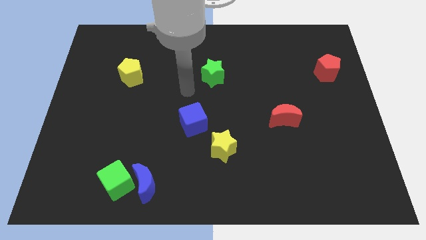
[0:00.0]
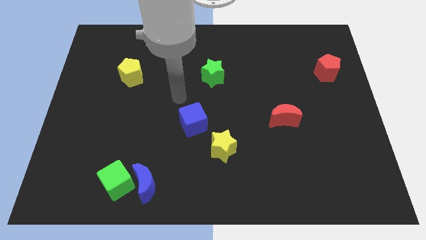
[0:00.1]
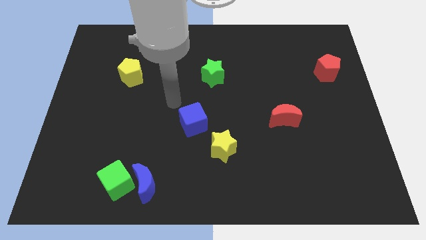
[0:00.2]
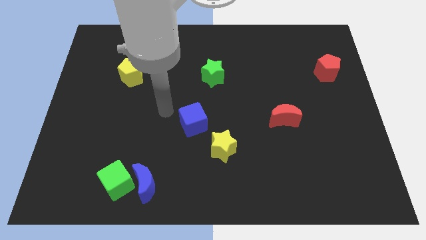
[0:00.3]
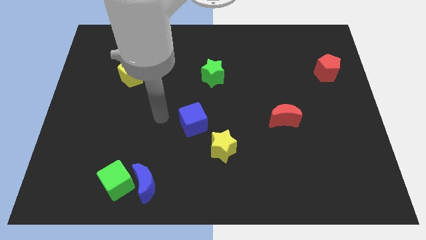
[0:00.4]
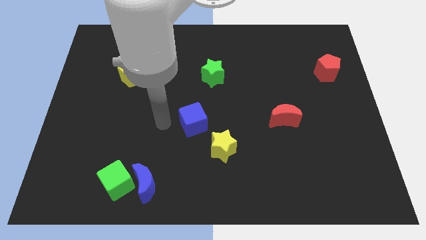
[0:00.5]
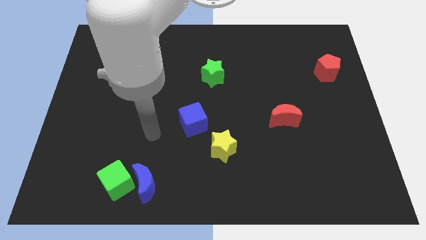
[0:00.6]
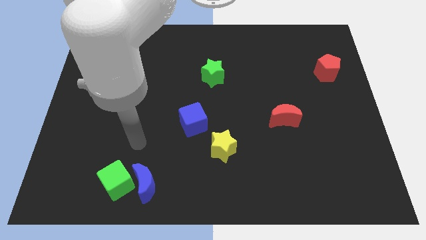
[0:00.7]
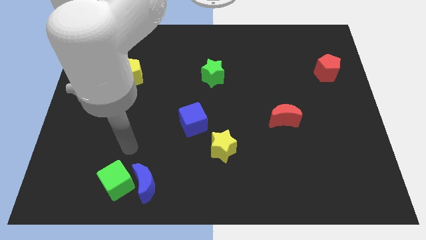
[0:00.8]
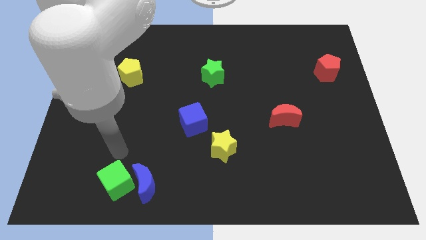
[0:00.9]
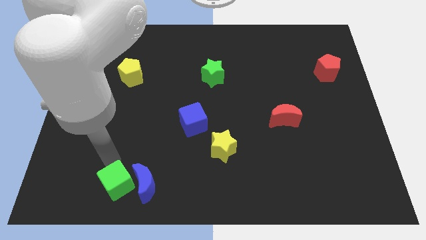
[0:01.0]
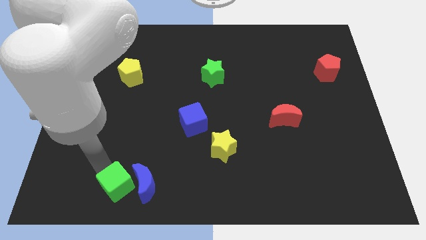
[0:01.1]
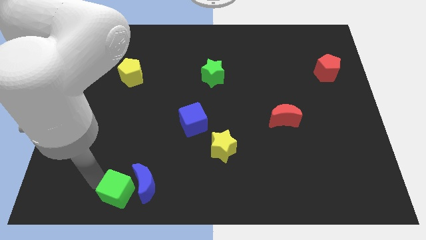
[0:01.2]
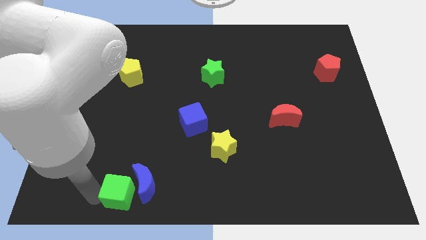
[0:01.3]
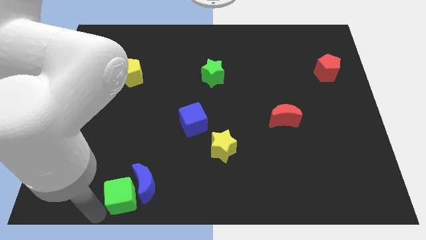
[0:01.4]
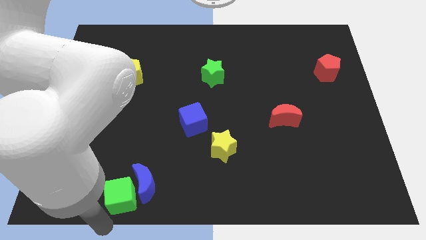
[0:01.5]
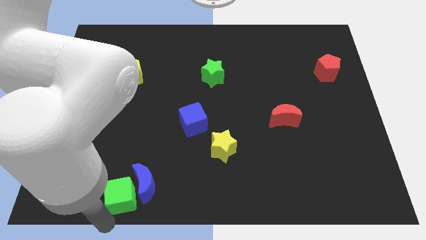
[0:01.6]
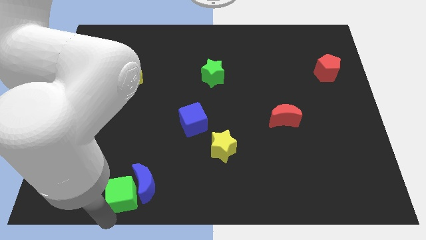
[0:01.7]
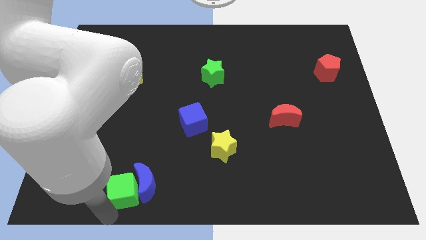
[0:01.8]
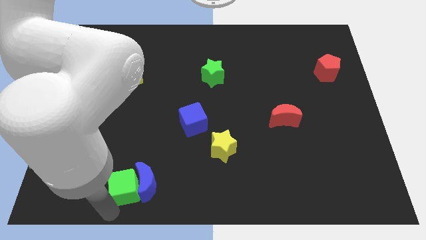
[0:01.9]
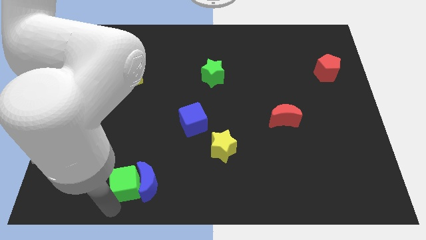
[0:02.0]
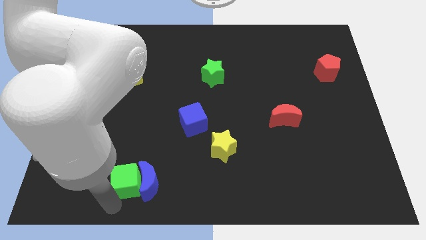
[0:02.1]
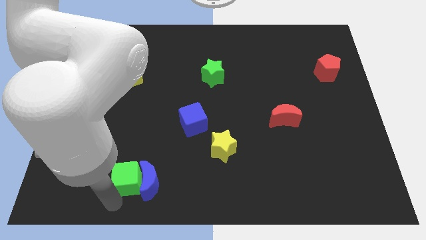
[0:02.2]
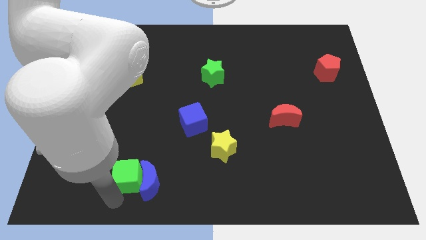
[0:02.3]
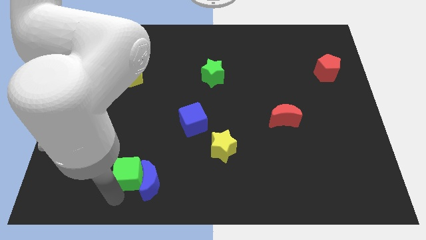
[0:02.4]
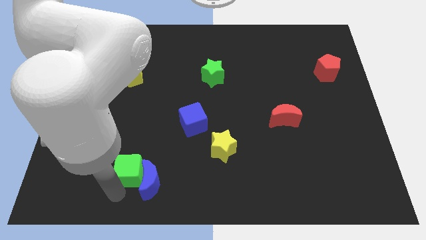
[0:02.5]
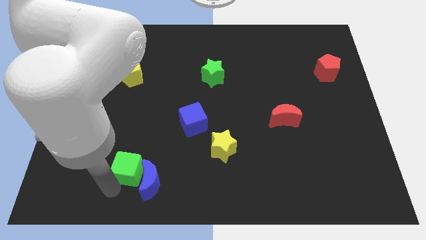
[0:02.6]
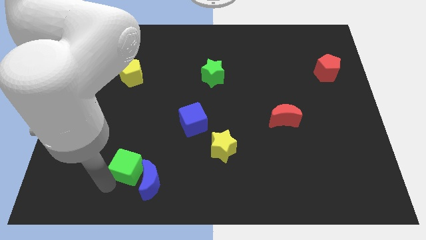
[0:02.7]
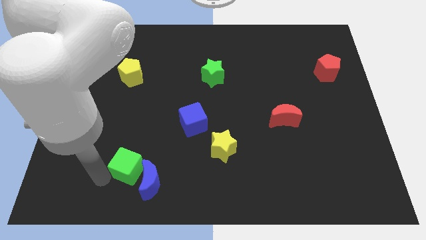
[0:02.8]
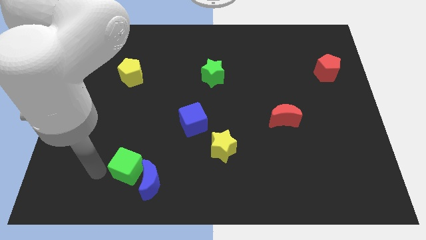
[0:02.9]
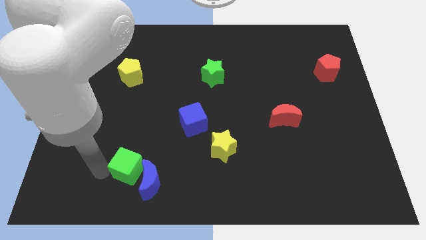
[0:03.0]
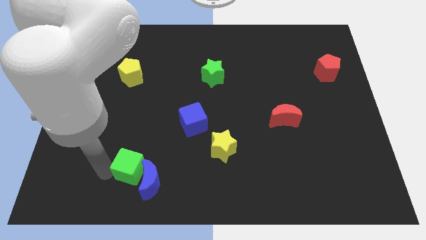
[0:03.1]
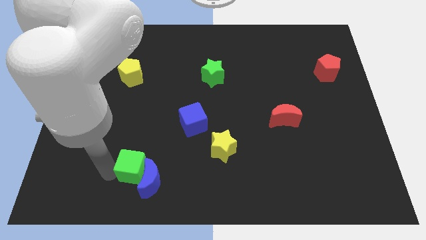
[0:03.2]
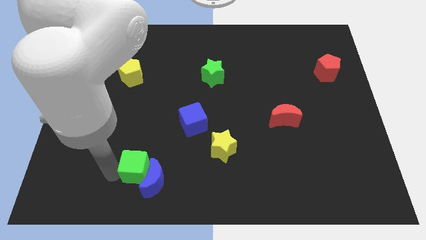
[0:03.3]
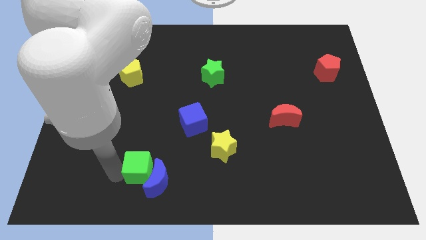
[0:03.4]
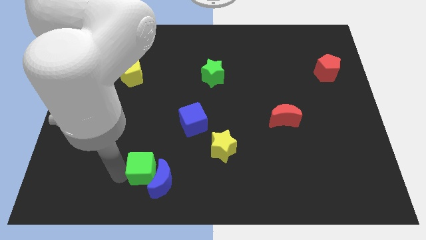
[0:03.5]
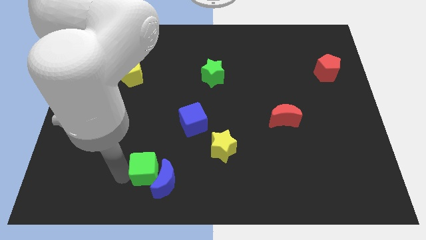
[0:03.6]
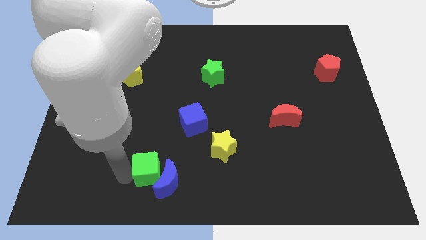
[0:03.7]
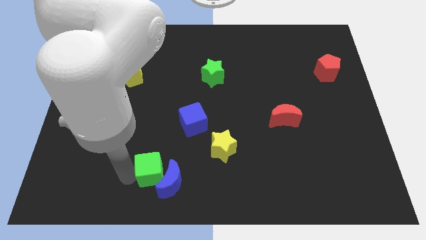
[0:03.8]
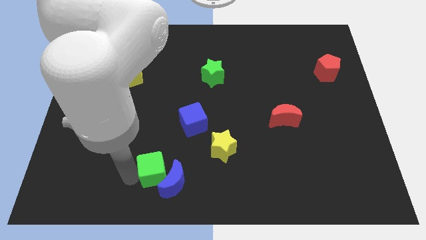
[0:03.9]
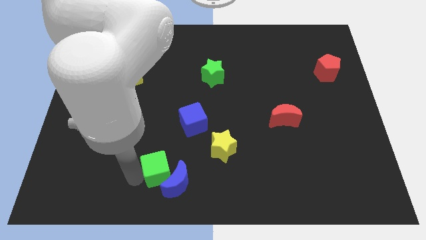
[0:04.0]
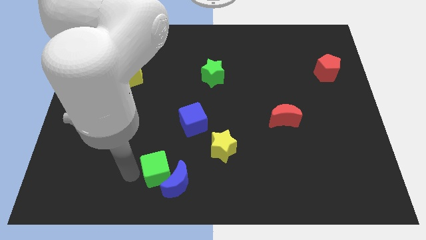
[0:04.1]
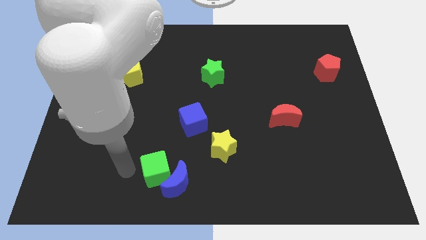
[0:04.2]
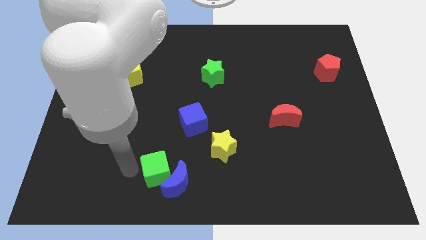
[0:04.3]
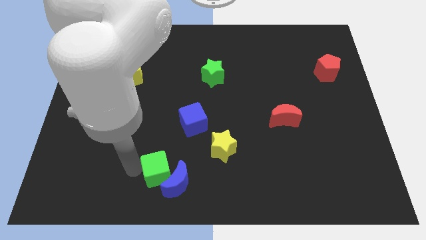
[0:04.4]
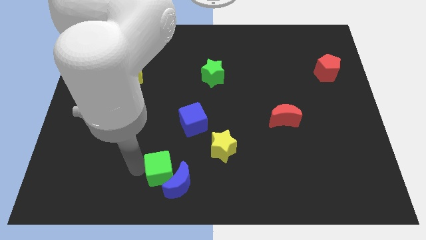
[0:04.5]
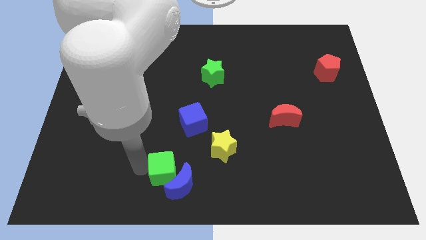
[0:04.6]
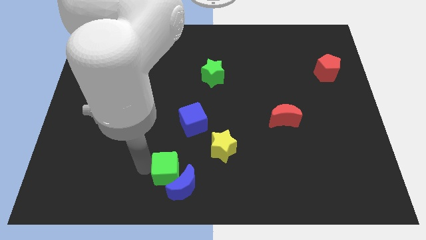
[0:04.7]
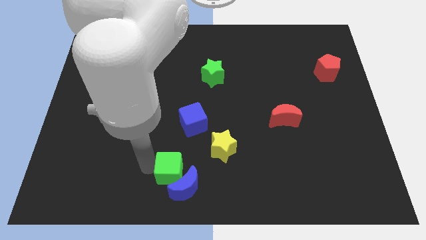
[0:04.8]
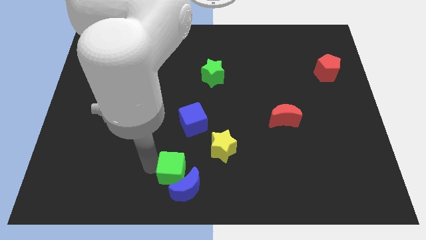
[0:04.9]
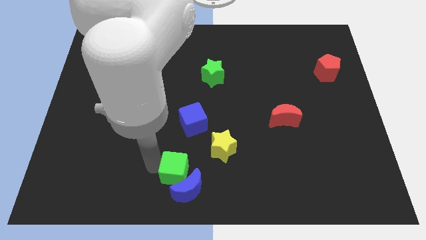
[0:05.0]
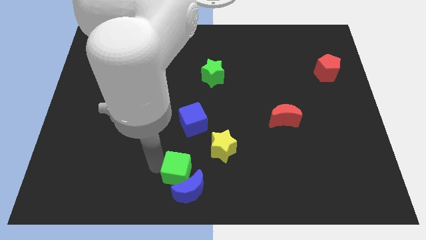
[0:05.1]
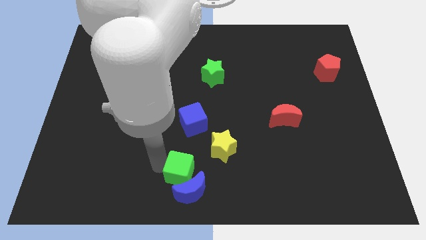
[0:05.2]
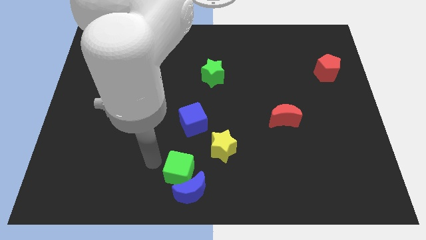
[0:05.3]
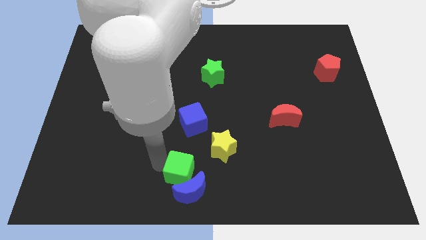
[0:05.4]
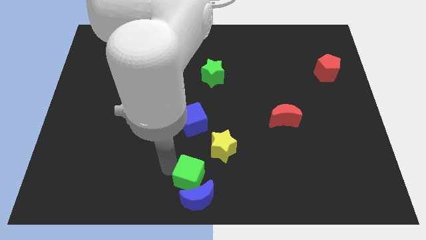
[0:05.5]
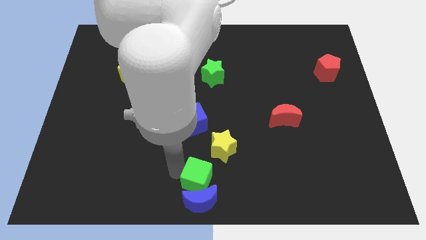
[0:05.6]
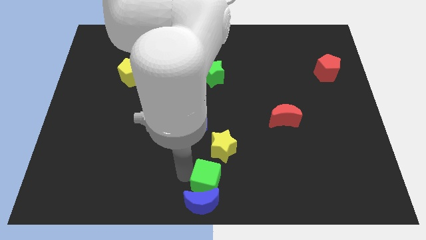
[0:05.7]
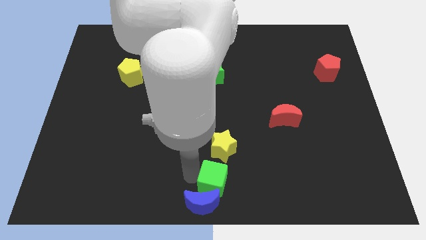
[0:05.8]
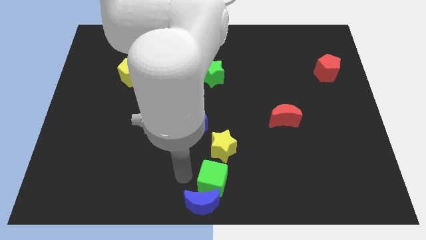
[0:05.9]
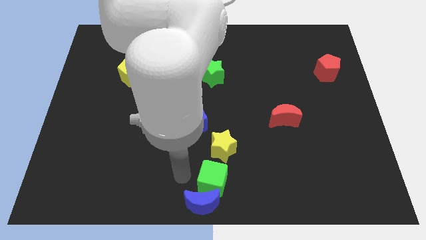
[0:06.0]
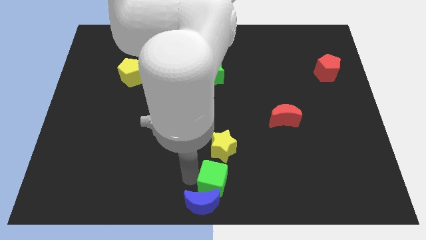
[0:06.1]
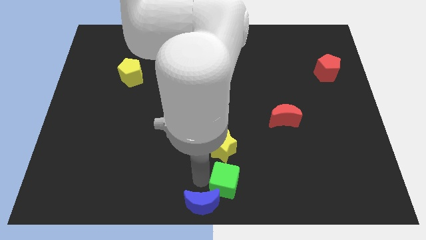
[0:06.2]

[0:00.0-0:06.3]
slide the green cube to the right

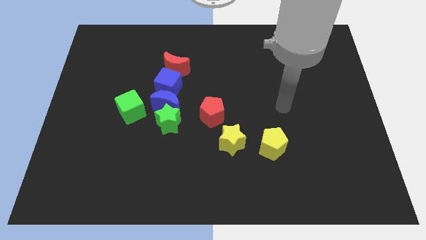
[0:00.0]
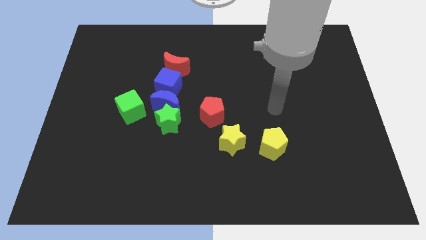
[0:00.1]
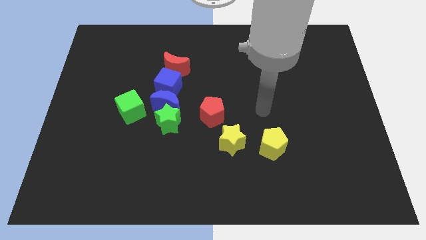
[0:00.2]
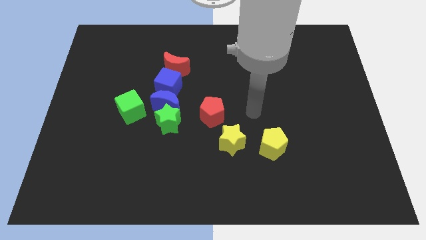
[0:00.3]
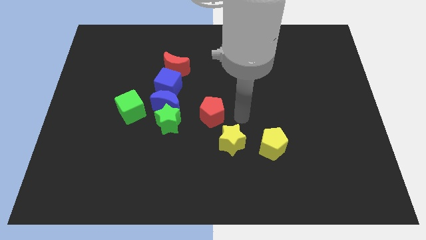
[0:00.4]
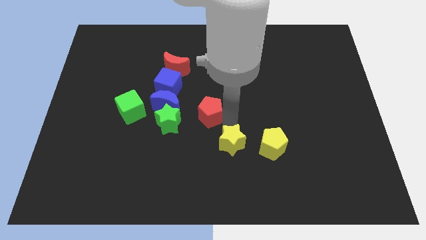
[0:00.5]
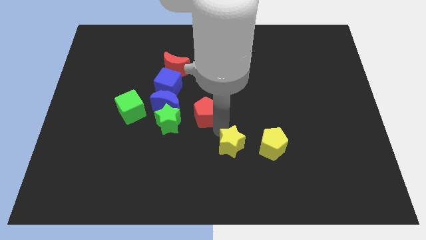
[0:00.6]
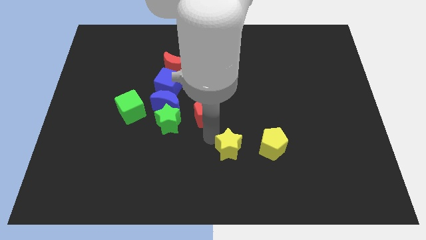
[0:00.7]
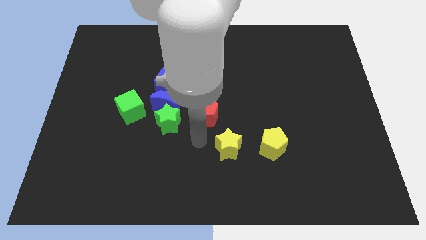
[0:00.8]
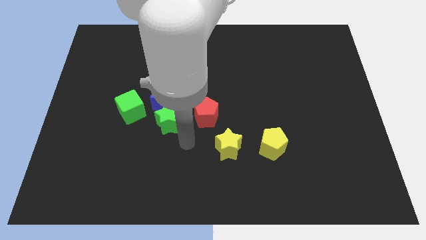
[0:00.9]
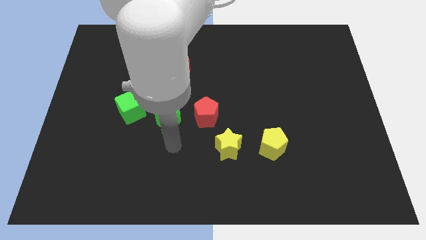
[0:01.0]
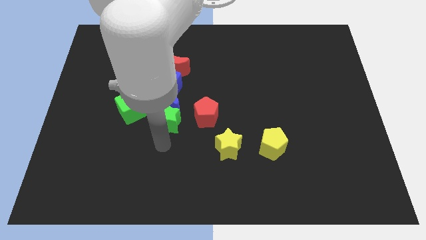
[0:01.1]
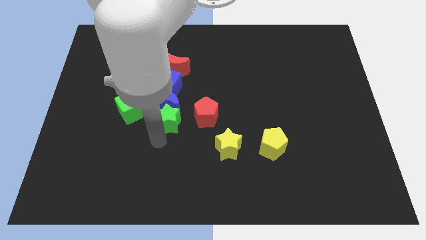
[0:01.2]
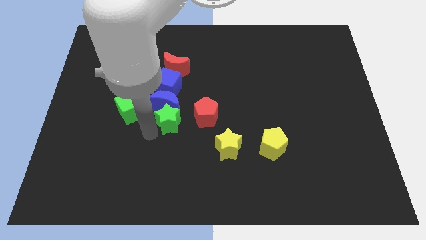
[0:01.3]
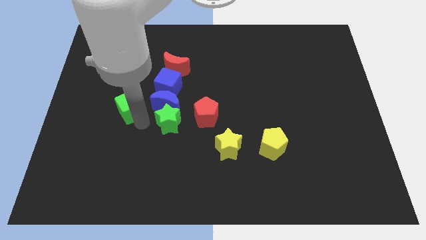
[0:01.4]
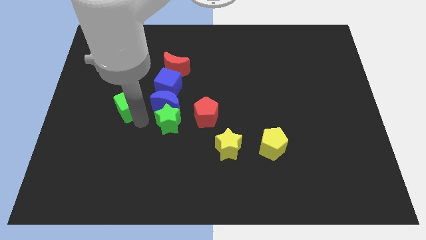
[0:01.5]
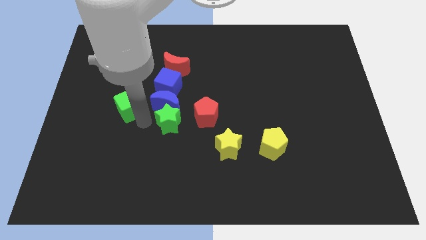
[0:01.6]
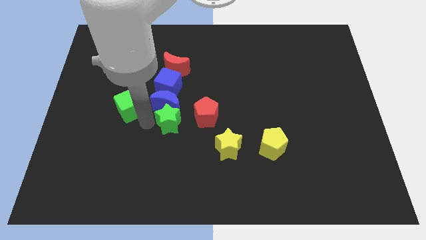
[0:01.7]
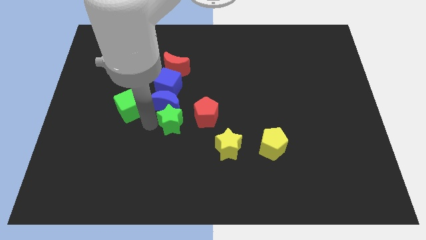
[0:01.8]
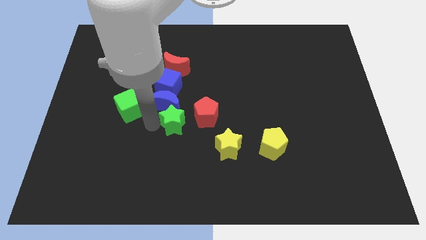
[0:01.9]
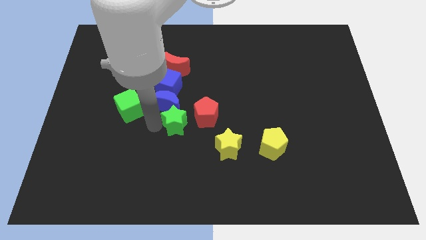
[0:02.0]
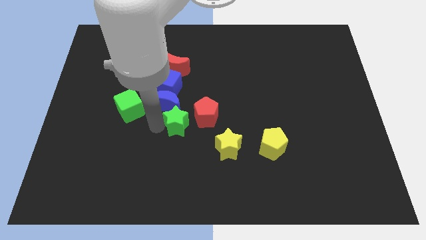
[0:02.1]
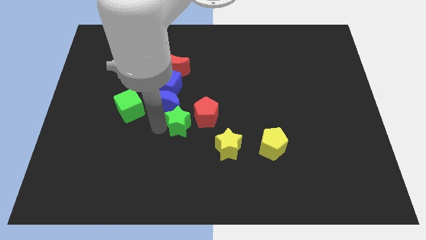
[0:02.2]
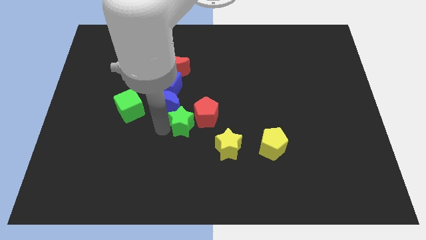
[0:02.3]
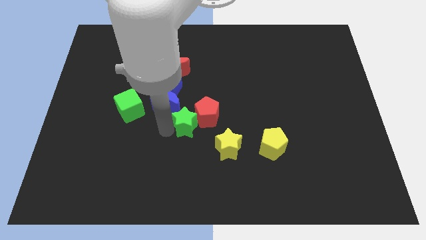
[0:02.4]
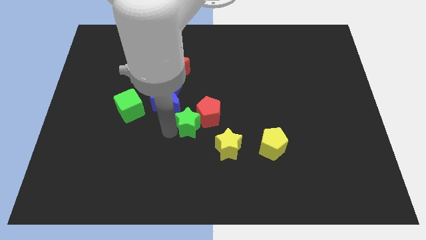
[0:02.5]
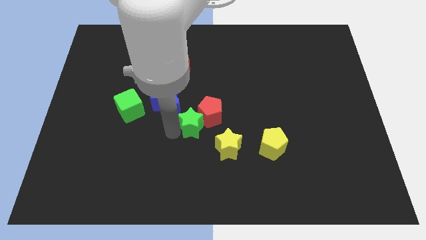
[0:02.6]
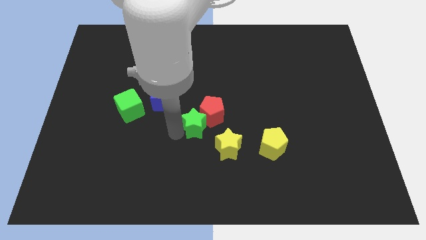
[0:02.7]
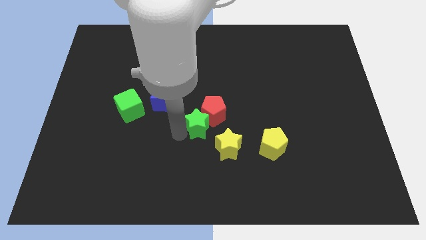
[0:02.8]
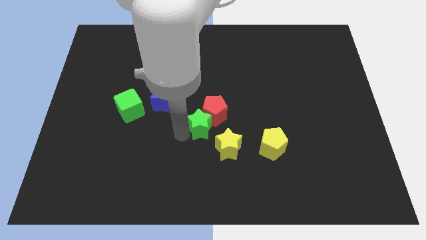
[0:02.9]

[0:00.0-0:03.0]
slide the green star a little right
